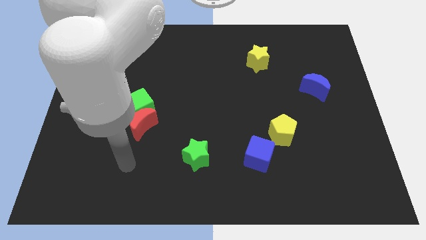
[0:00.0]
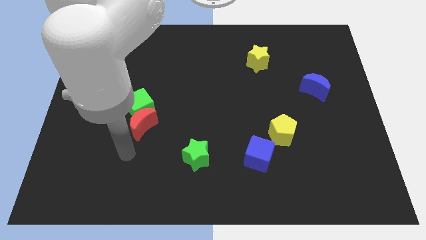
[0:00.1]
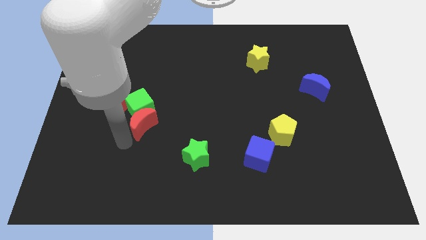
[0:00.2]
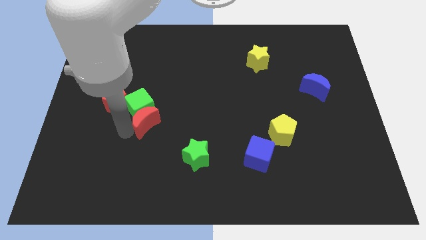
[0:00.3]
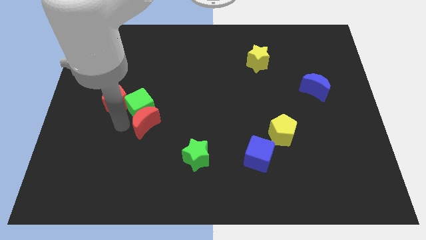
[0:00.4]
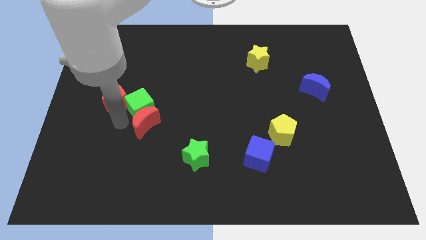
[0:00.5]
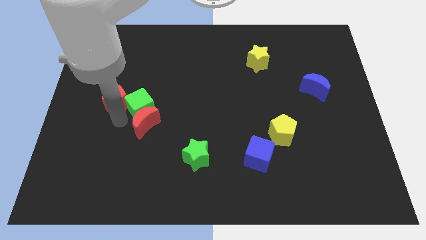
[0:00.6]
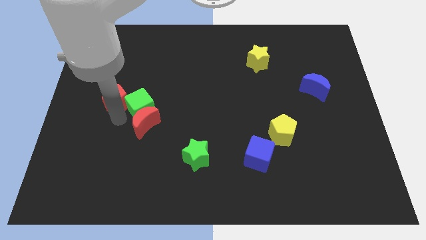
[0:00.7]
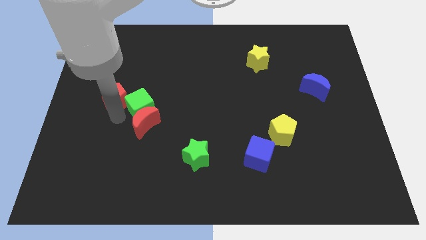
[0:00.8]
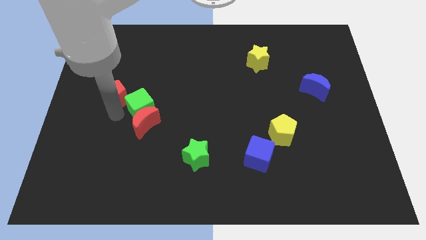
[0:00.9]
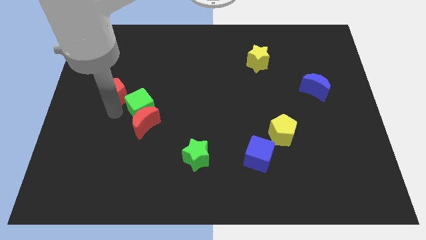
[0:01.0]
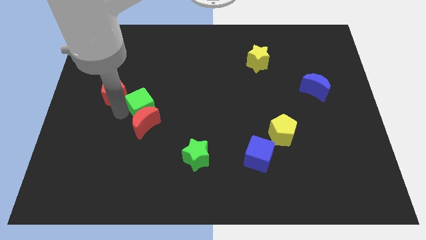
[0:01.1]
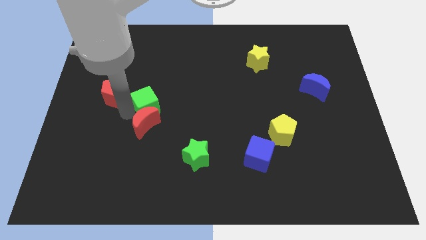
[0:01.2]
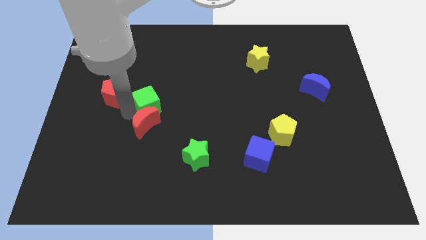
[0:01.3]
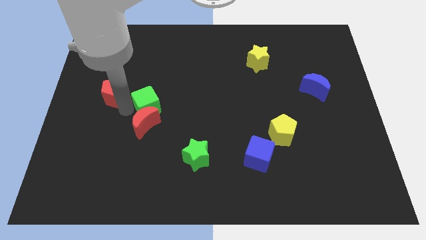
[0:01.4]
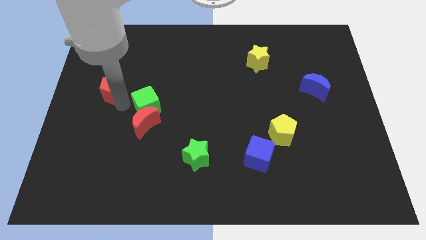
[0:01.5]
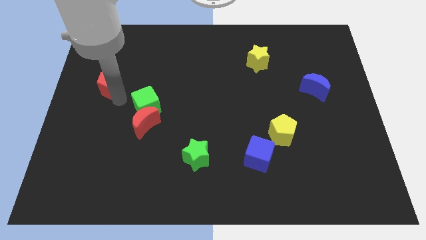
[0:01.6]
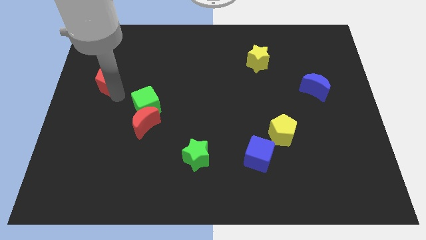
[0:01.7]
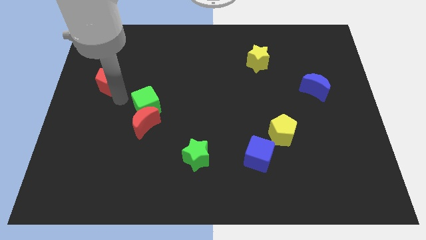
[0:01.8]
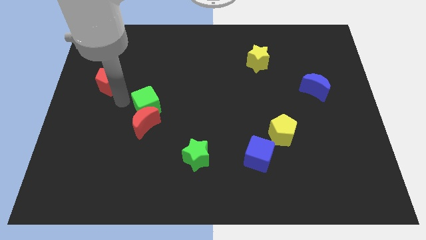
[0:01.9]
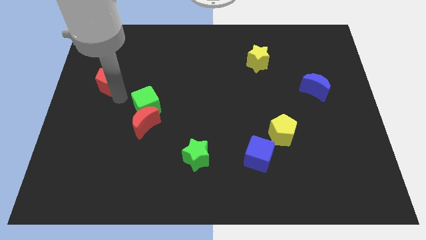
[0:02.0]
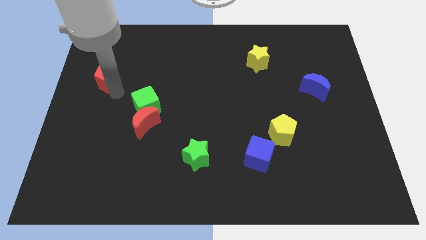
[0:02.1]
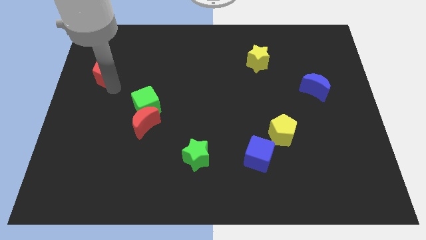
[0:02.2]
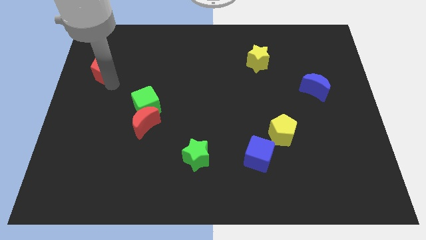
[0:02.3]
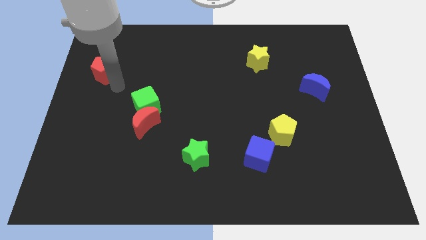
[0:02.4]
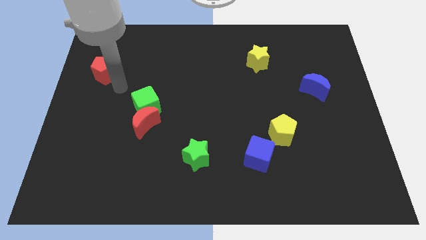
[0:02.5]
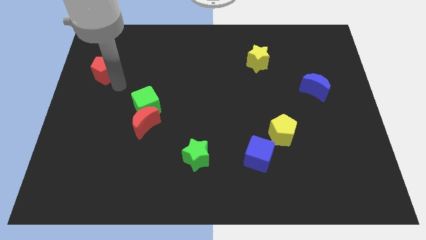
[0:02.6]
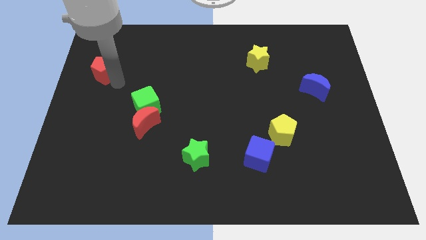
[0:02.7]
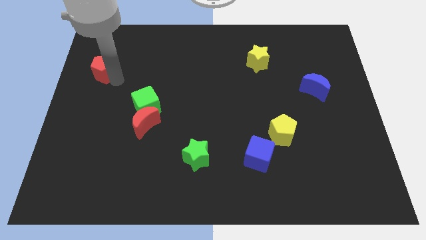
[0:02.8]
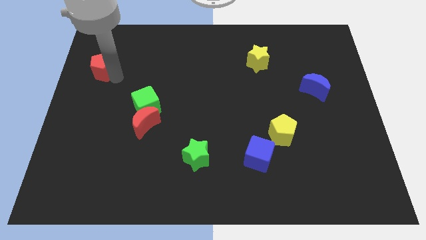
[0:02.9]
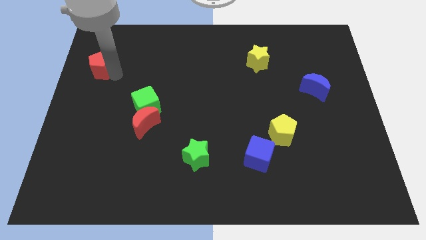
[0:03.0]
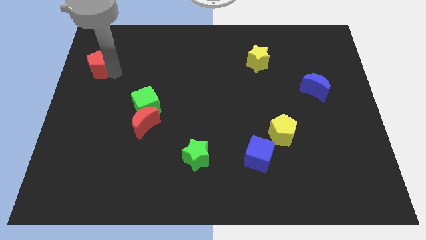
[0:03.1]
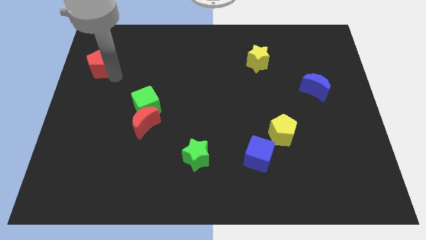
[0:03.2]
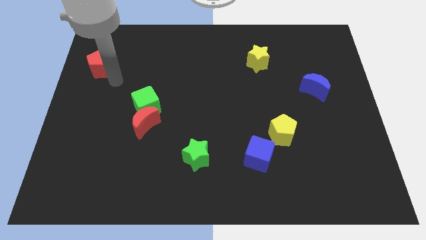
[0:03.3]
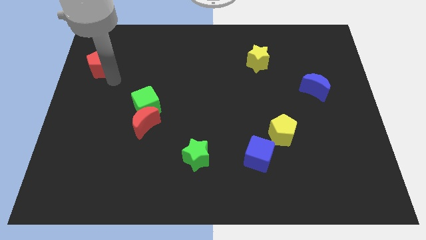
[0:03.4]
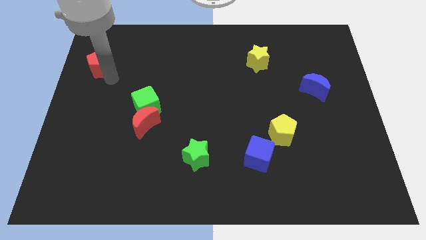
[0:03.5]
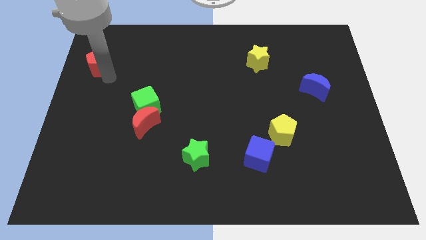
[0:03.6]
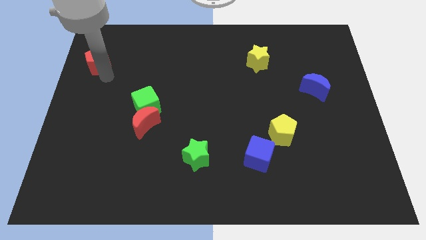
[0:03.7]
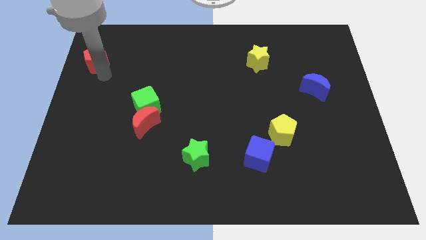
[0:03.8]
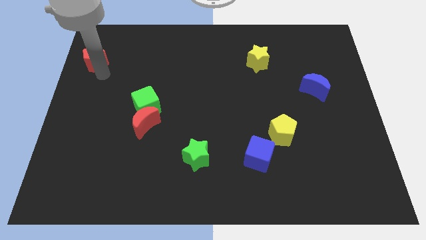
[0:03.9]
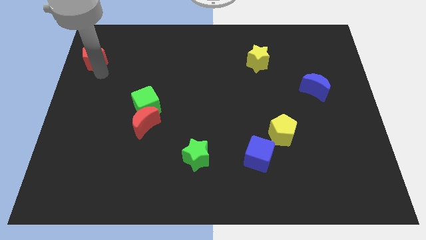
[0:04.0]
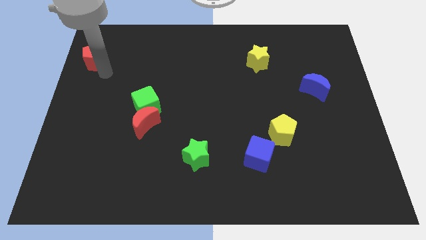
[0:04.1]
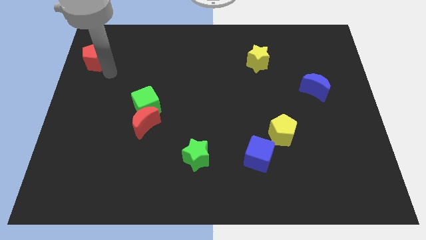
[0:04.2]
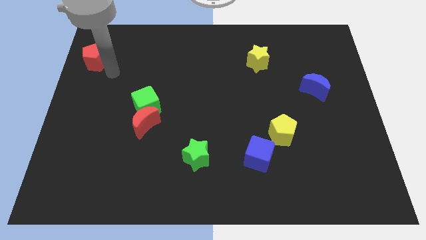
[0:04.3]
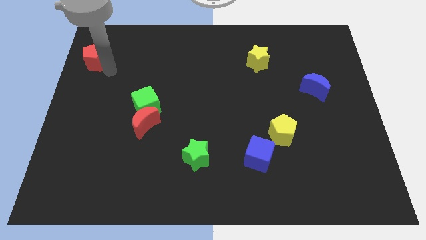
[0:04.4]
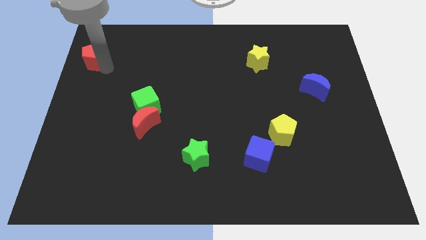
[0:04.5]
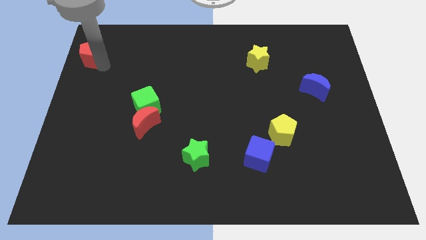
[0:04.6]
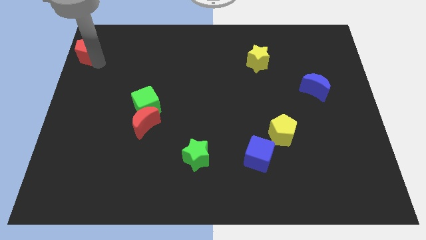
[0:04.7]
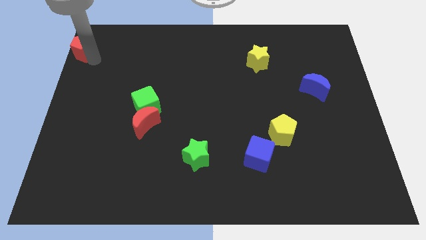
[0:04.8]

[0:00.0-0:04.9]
slide the red pentagon to the upper left corner

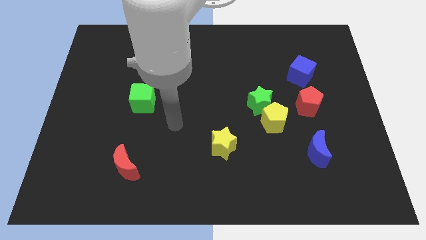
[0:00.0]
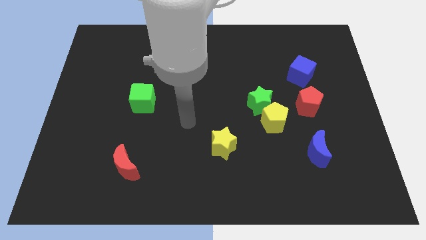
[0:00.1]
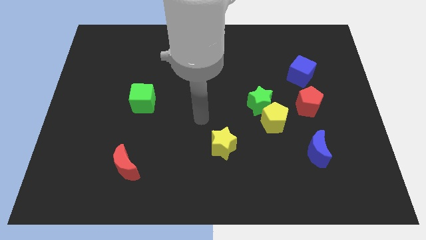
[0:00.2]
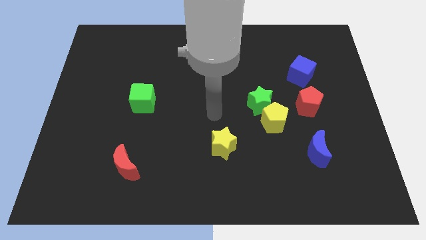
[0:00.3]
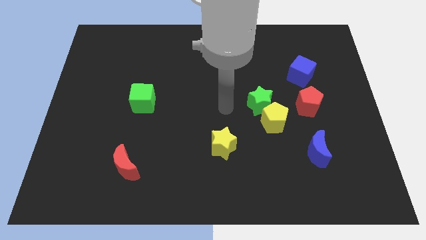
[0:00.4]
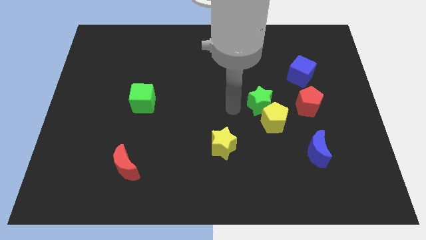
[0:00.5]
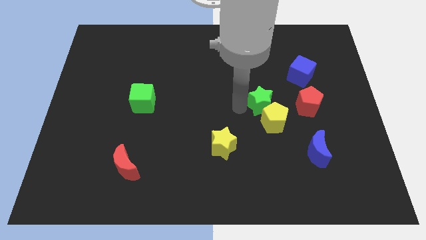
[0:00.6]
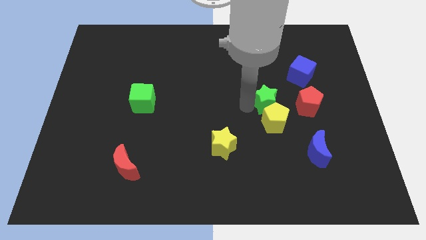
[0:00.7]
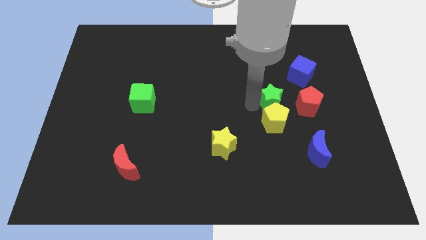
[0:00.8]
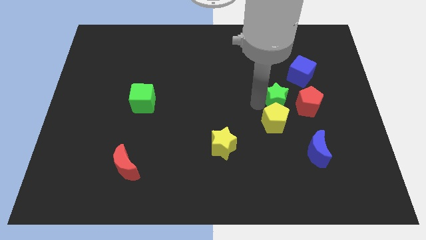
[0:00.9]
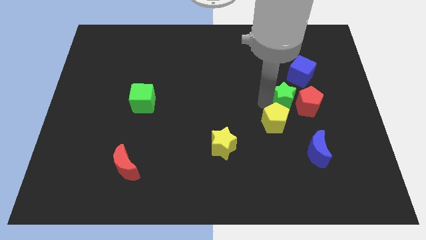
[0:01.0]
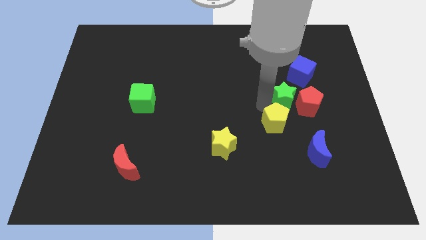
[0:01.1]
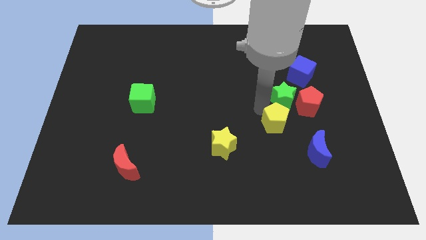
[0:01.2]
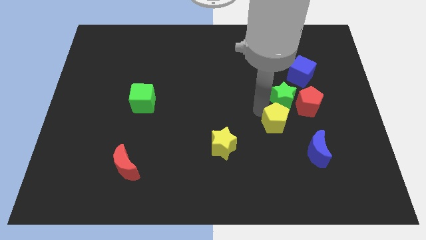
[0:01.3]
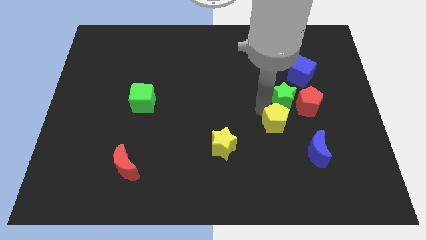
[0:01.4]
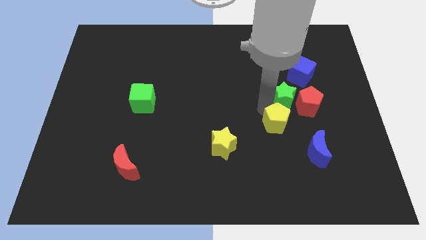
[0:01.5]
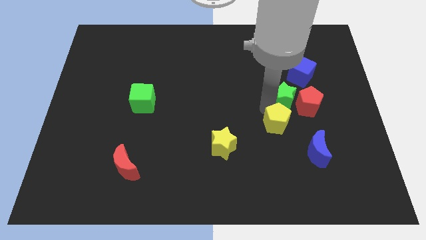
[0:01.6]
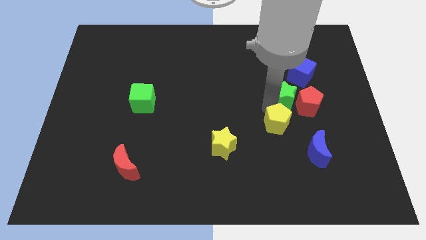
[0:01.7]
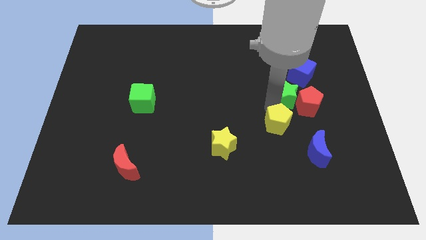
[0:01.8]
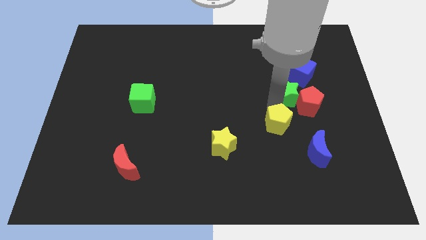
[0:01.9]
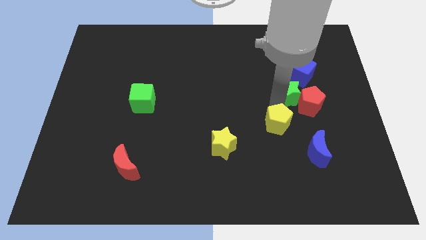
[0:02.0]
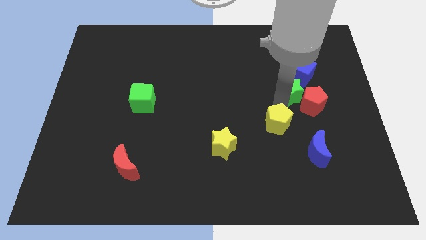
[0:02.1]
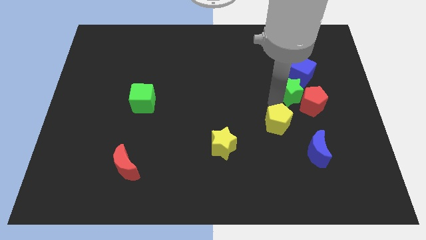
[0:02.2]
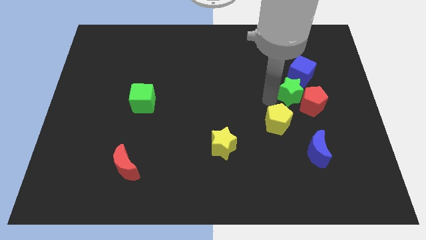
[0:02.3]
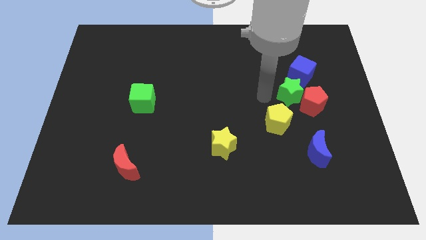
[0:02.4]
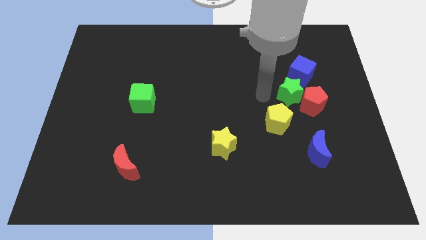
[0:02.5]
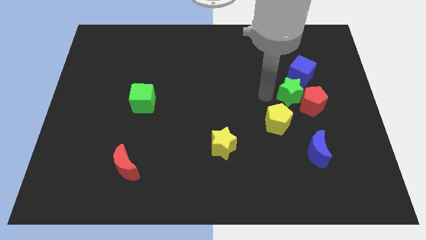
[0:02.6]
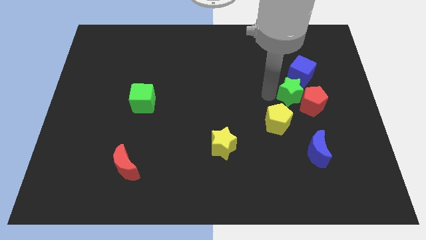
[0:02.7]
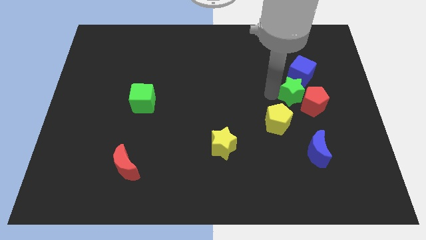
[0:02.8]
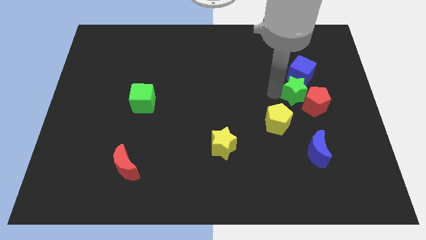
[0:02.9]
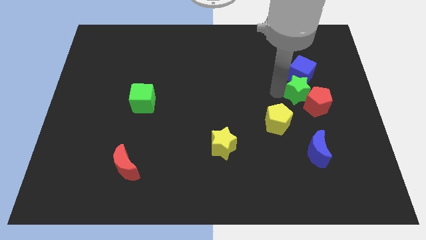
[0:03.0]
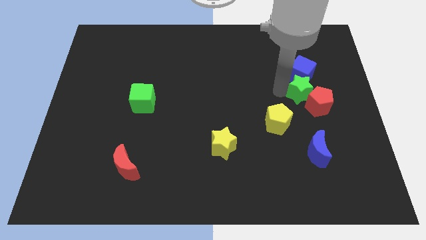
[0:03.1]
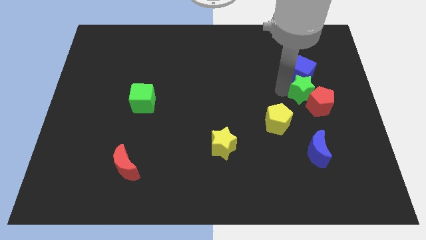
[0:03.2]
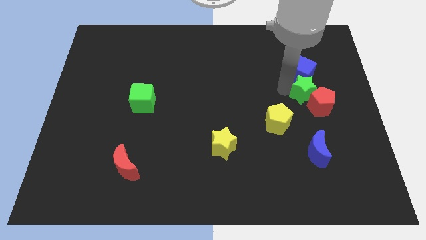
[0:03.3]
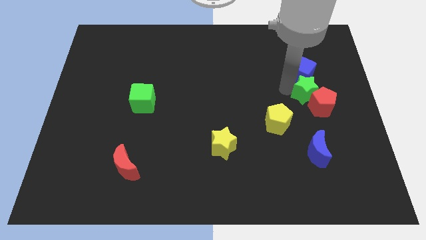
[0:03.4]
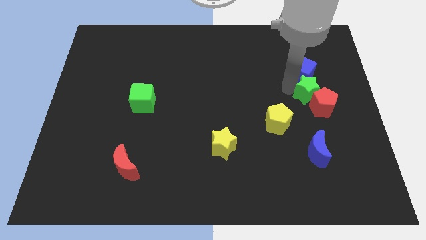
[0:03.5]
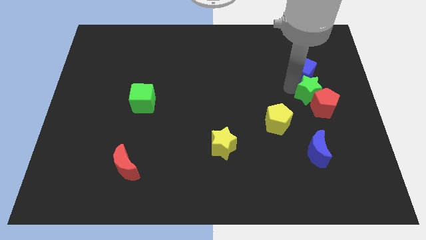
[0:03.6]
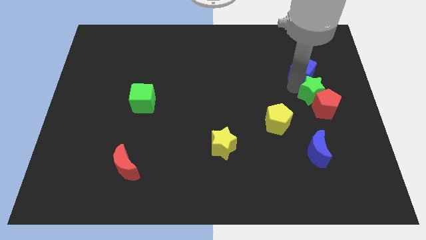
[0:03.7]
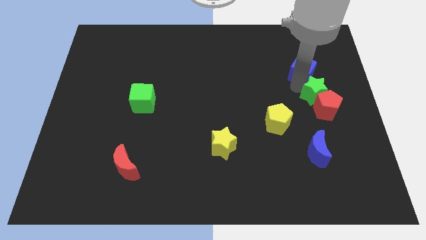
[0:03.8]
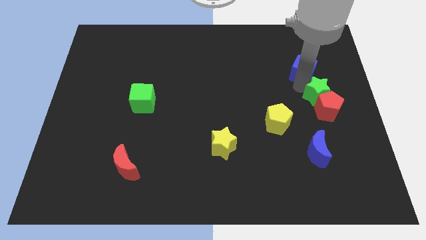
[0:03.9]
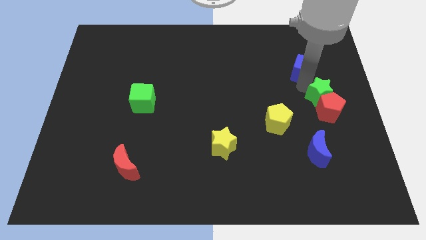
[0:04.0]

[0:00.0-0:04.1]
move the green star to the right side of the board
